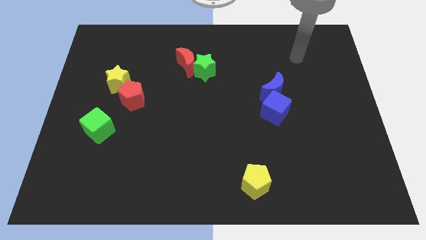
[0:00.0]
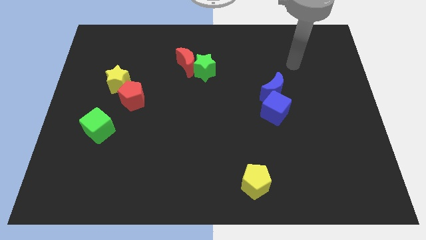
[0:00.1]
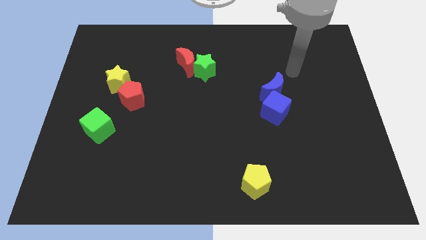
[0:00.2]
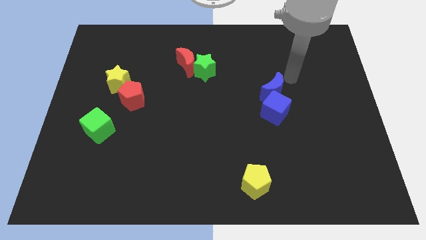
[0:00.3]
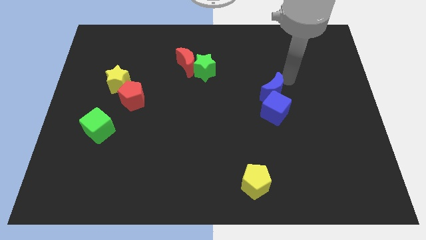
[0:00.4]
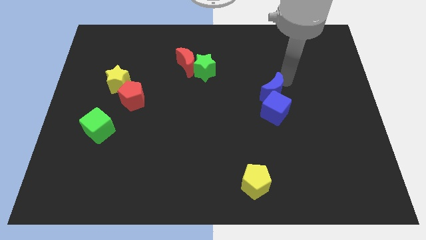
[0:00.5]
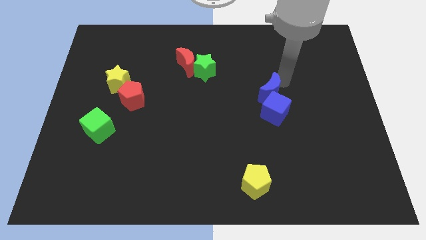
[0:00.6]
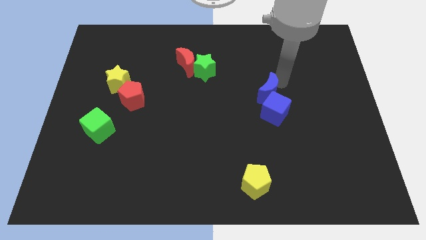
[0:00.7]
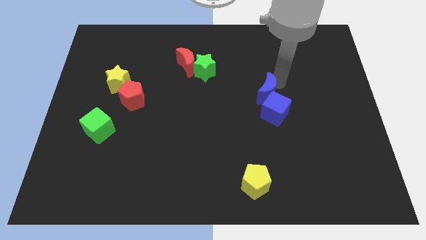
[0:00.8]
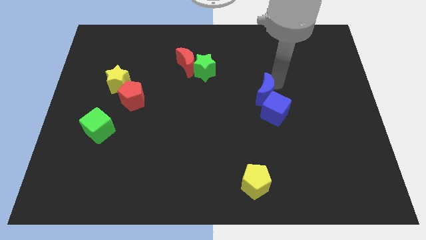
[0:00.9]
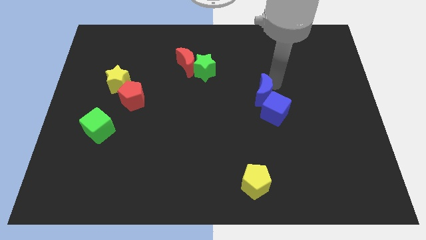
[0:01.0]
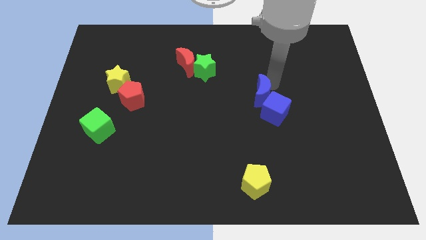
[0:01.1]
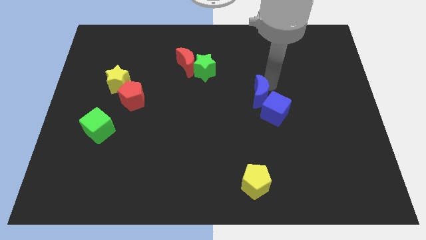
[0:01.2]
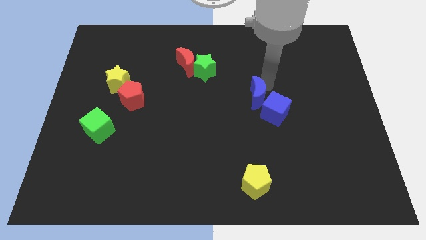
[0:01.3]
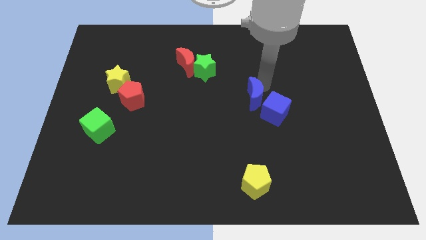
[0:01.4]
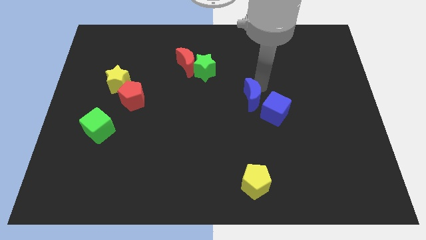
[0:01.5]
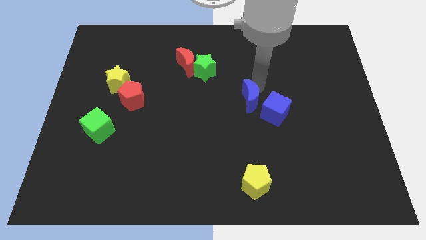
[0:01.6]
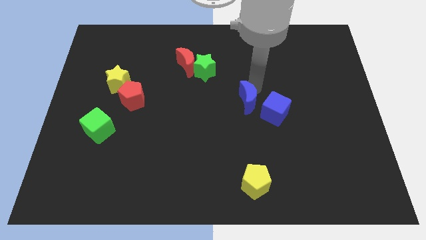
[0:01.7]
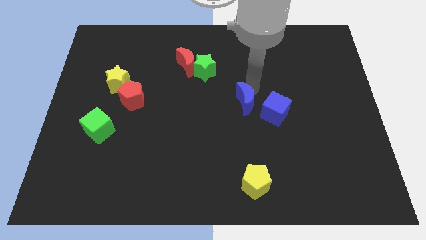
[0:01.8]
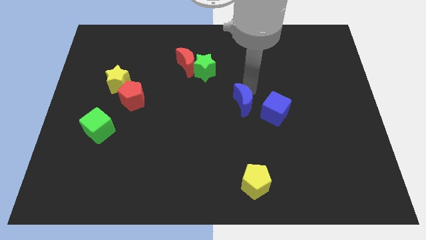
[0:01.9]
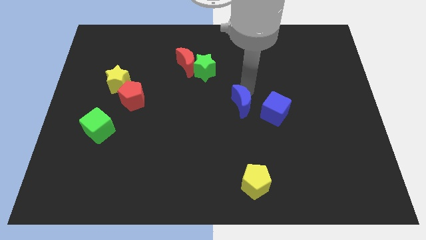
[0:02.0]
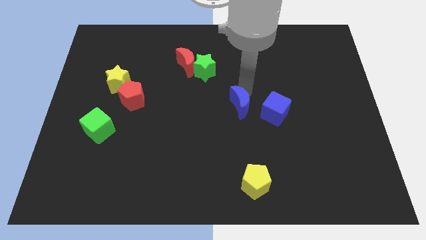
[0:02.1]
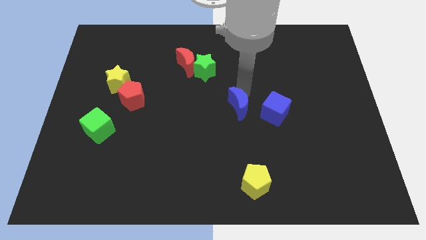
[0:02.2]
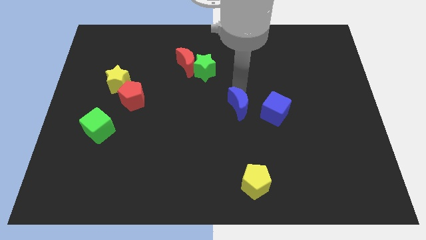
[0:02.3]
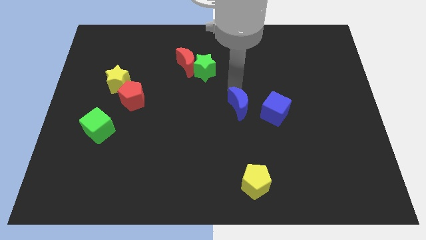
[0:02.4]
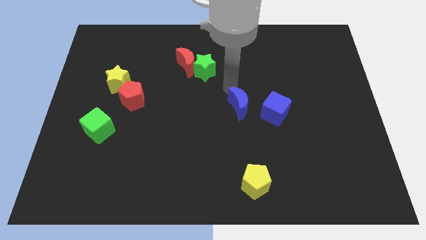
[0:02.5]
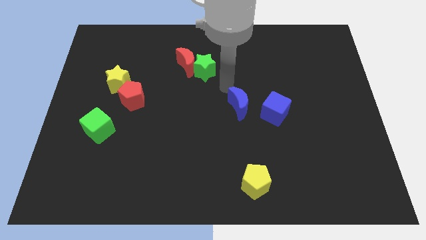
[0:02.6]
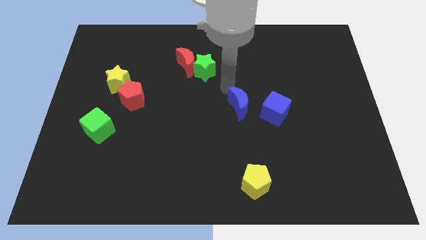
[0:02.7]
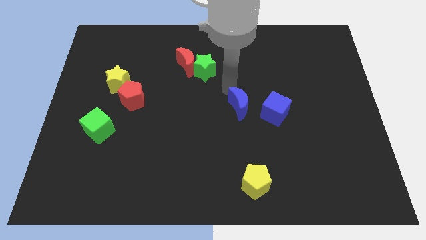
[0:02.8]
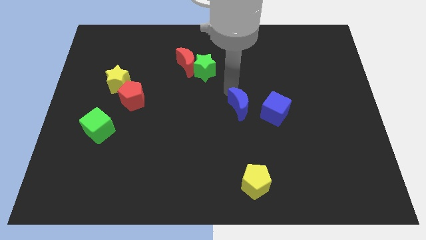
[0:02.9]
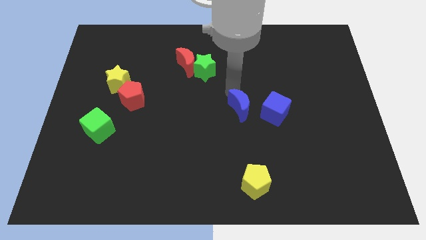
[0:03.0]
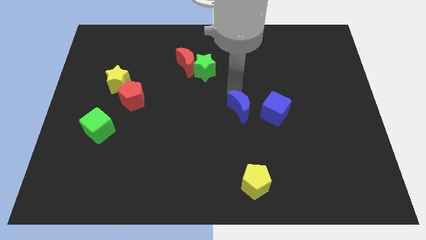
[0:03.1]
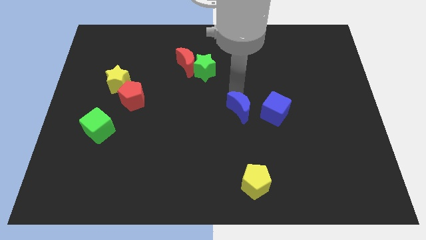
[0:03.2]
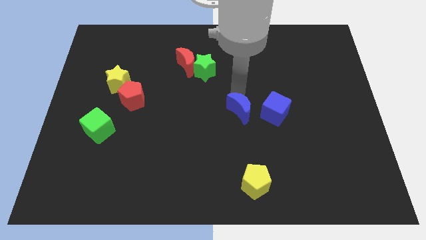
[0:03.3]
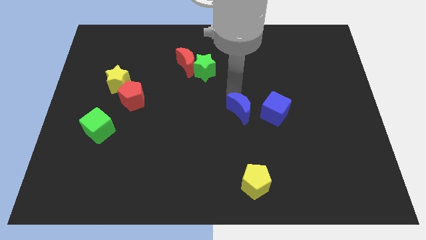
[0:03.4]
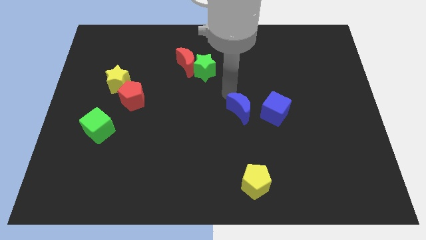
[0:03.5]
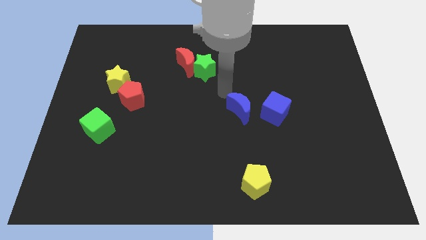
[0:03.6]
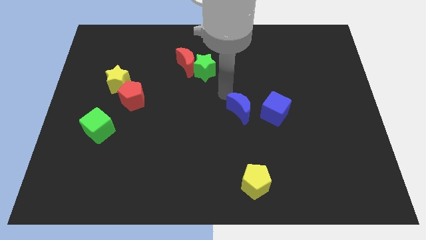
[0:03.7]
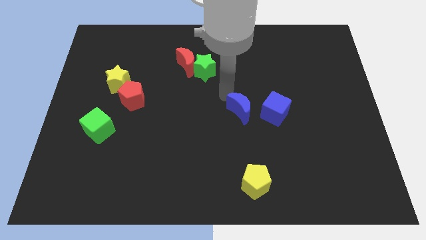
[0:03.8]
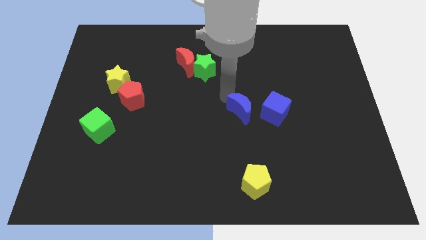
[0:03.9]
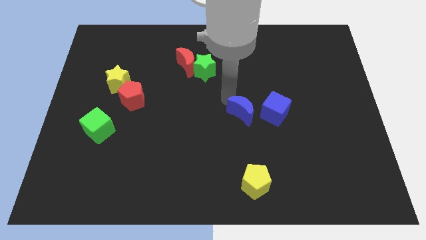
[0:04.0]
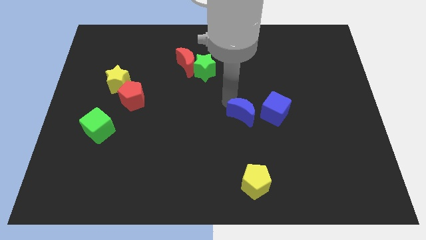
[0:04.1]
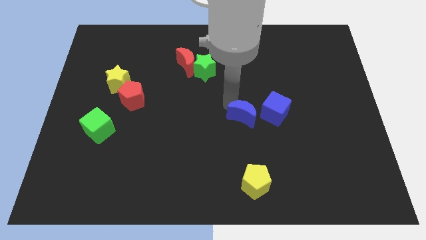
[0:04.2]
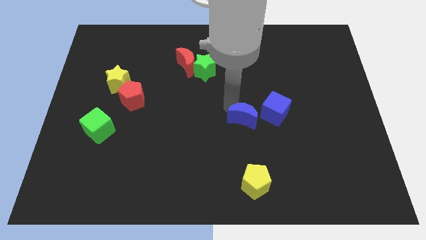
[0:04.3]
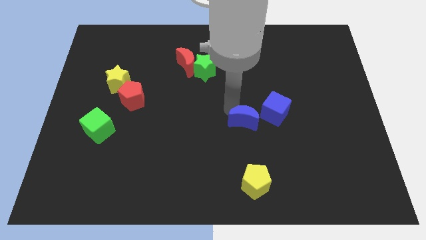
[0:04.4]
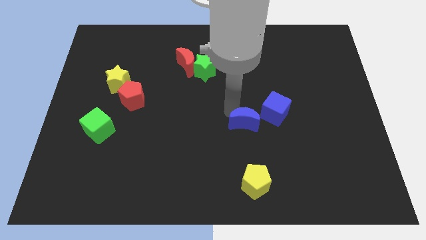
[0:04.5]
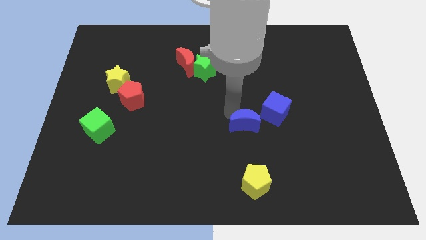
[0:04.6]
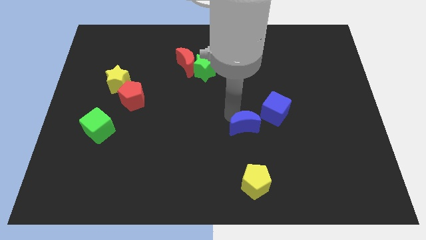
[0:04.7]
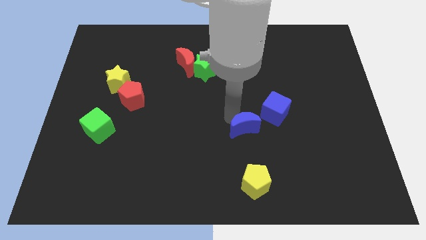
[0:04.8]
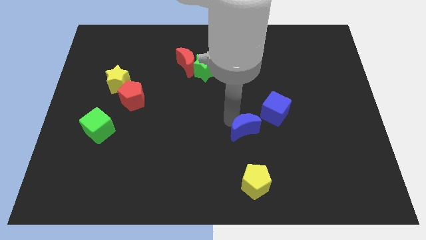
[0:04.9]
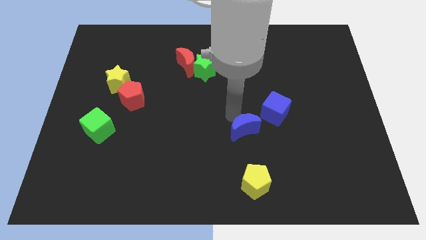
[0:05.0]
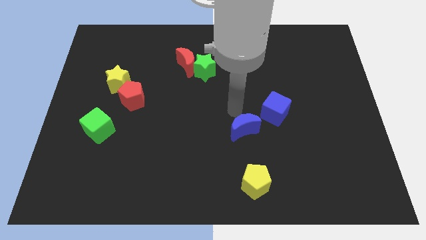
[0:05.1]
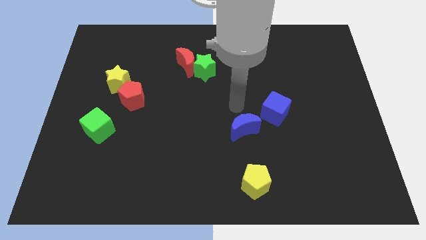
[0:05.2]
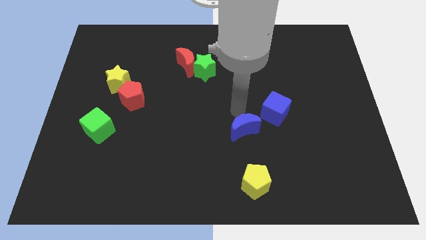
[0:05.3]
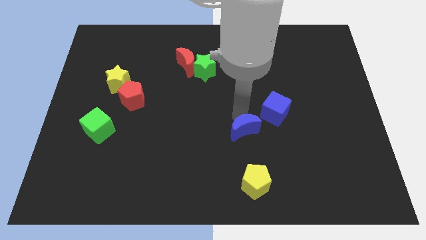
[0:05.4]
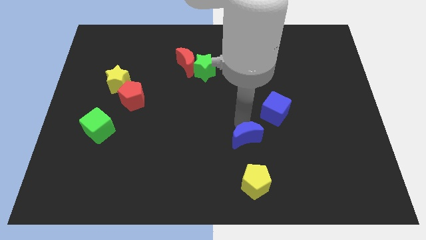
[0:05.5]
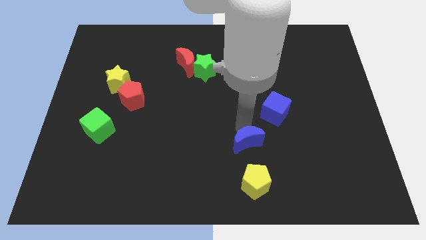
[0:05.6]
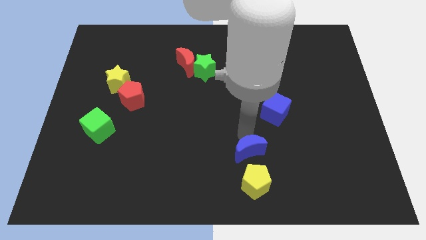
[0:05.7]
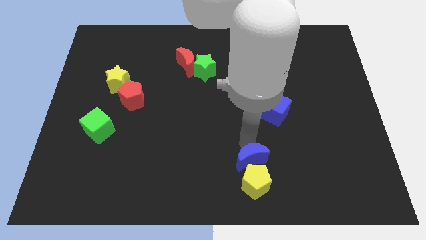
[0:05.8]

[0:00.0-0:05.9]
slide the blue moon close to the yellow pentagon

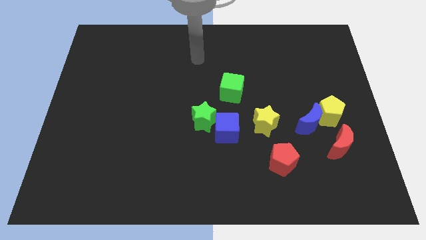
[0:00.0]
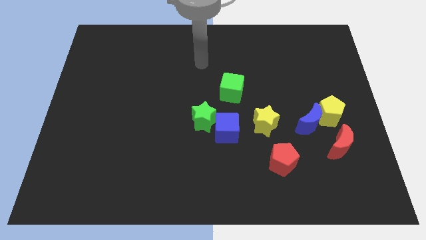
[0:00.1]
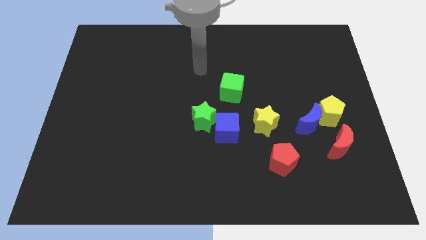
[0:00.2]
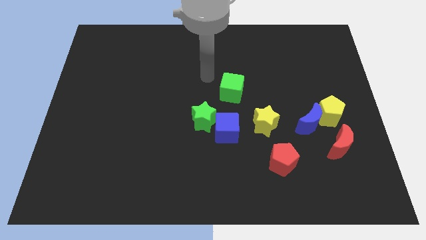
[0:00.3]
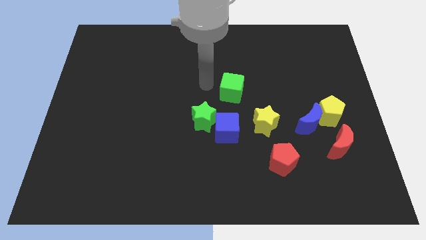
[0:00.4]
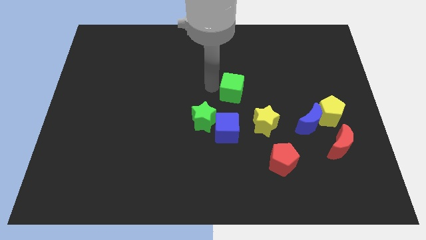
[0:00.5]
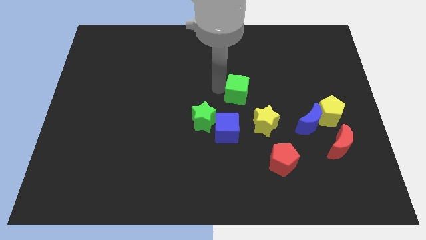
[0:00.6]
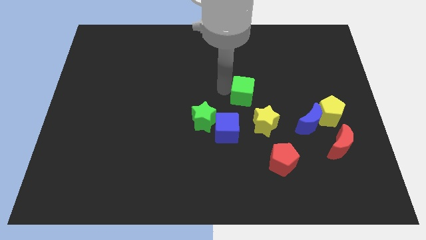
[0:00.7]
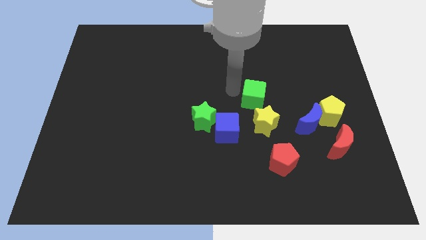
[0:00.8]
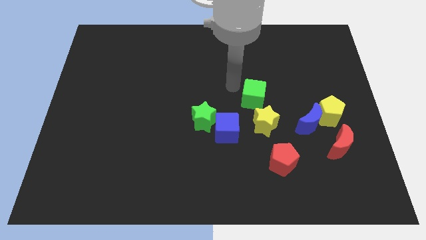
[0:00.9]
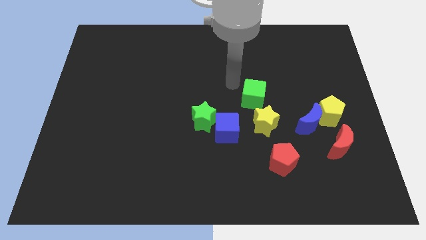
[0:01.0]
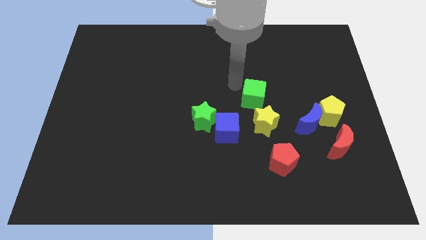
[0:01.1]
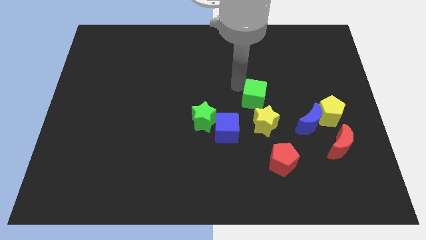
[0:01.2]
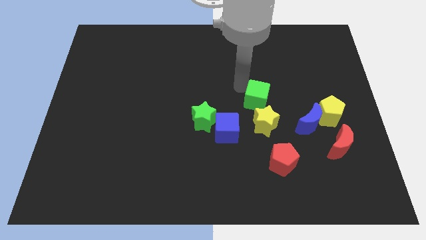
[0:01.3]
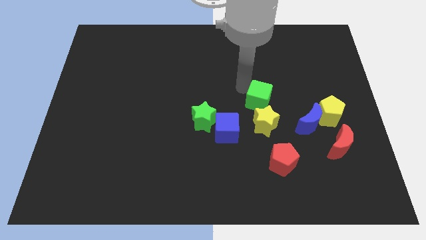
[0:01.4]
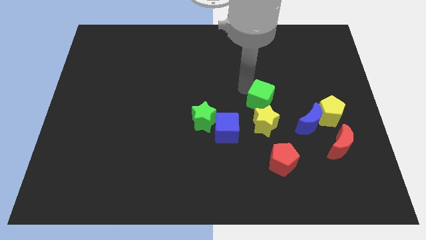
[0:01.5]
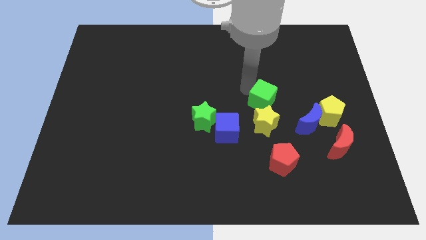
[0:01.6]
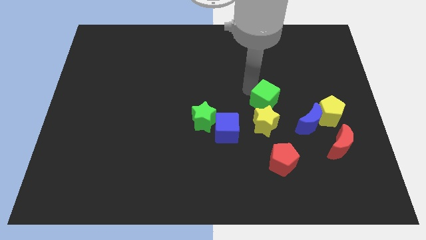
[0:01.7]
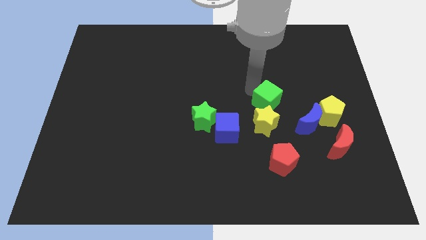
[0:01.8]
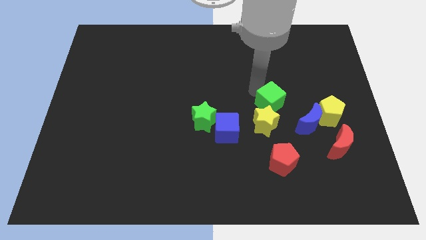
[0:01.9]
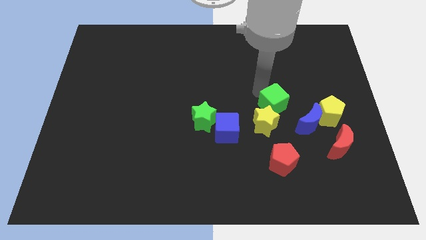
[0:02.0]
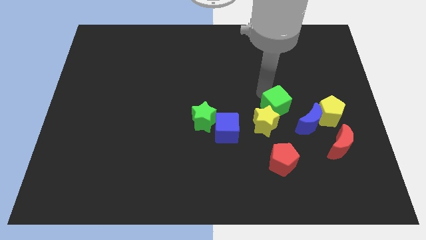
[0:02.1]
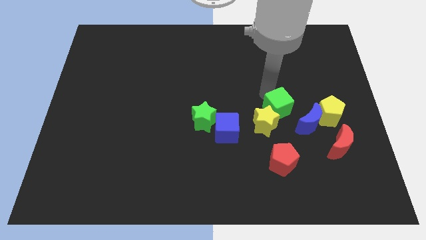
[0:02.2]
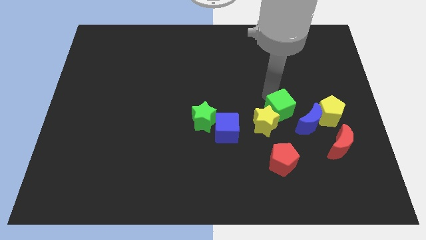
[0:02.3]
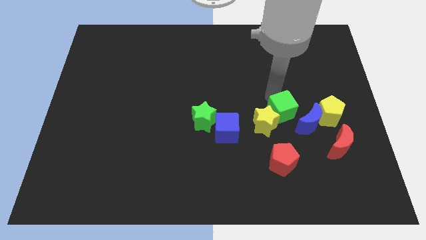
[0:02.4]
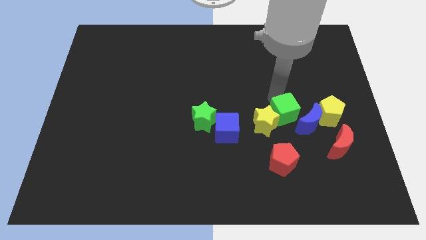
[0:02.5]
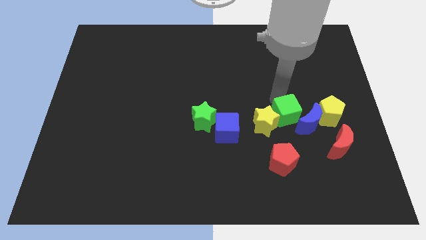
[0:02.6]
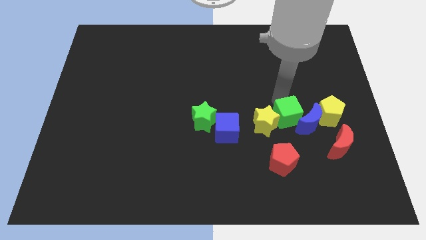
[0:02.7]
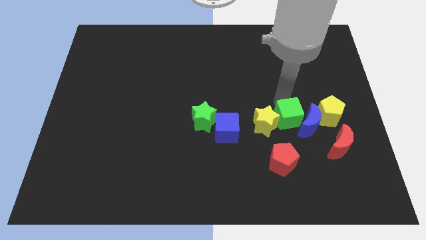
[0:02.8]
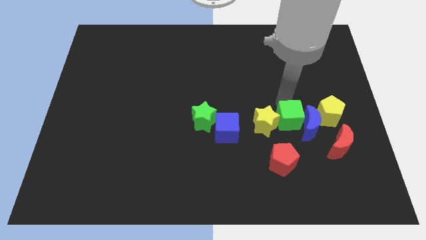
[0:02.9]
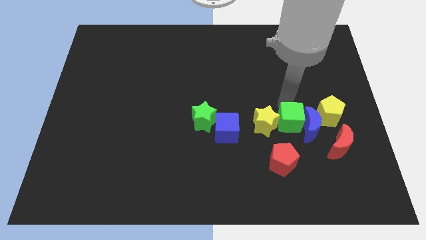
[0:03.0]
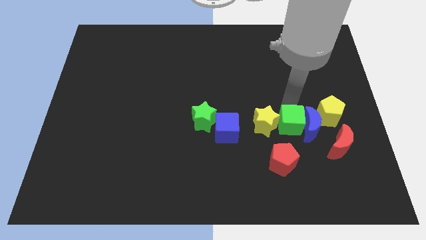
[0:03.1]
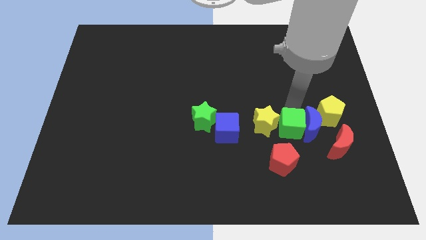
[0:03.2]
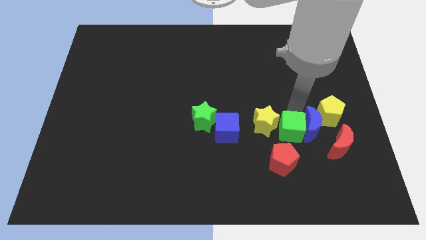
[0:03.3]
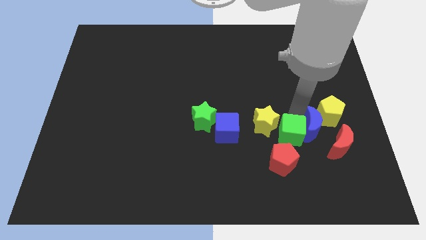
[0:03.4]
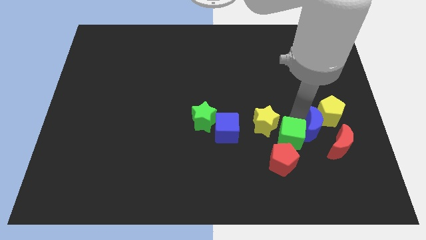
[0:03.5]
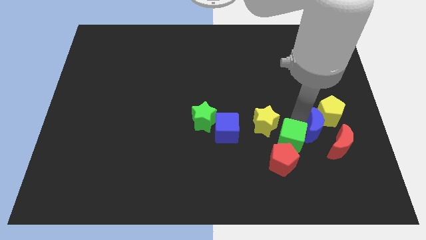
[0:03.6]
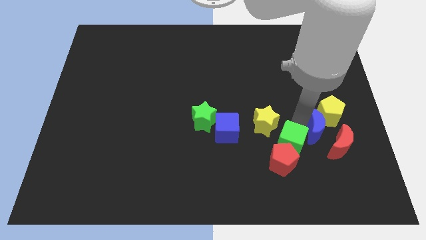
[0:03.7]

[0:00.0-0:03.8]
slide the green cube close to the red pentagon
